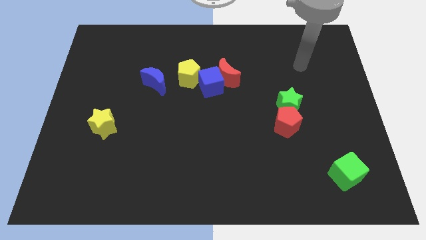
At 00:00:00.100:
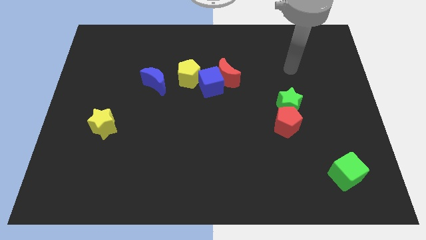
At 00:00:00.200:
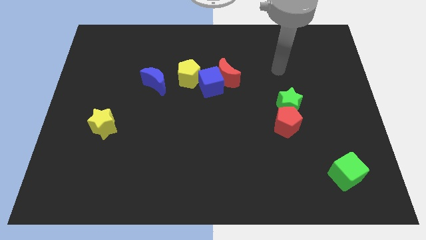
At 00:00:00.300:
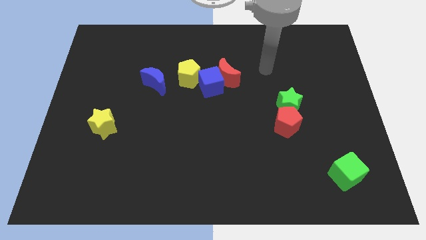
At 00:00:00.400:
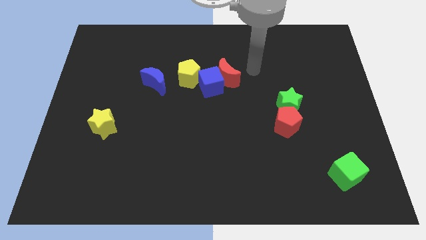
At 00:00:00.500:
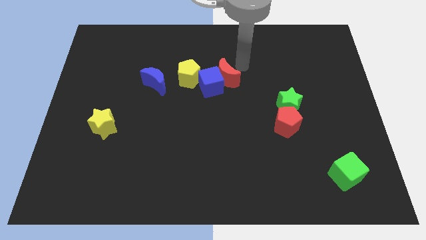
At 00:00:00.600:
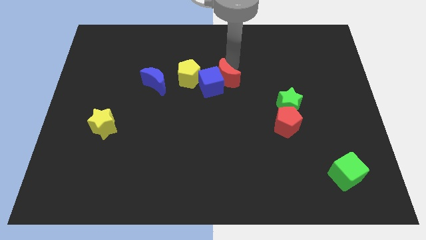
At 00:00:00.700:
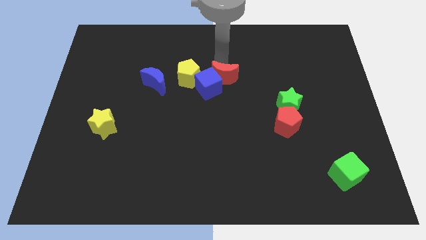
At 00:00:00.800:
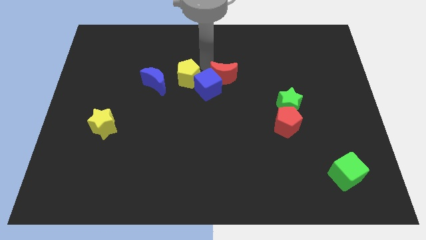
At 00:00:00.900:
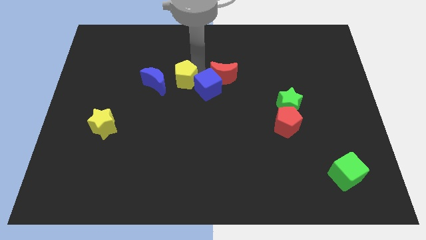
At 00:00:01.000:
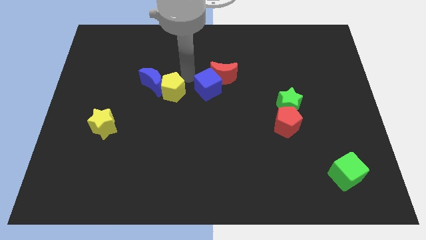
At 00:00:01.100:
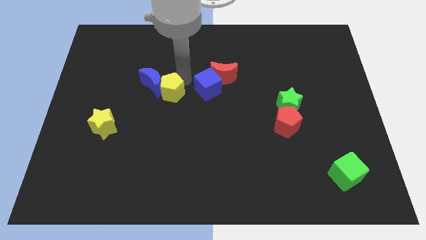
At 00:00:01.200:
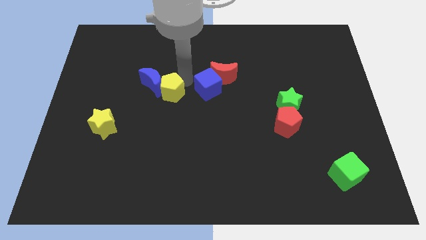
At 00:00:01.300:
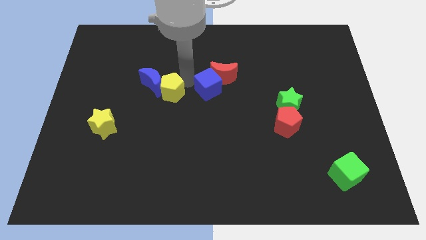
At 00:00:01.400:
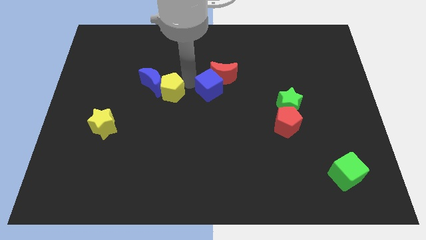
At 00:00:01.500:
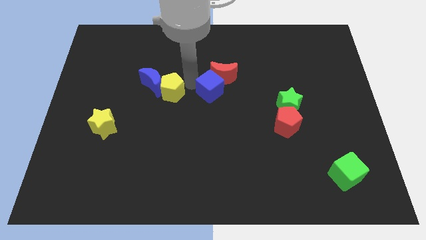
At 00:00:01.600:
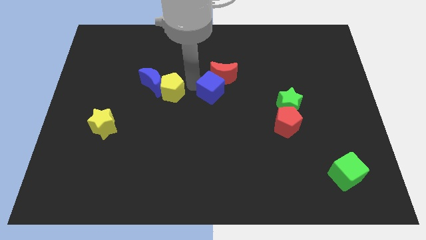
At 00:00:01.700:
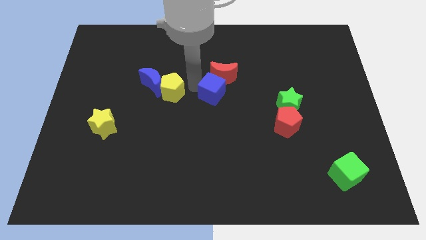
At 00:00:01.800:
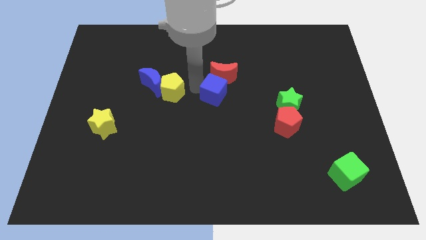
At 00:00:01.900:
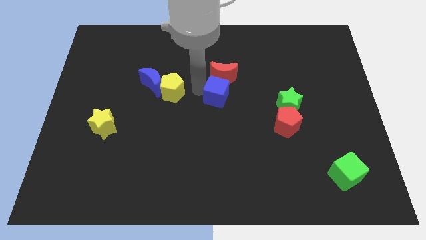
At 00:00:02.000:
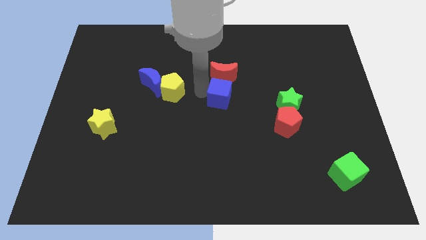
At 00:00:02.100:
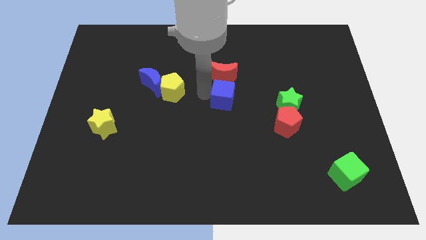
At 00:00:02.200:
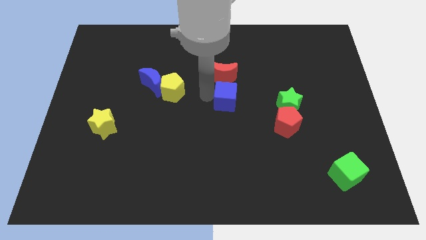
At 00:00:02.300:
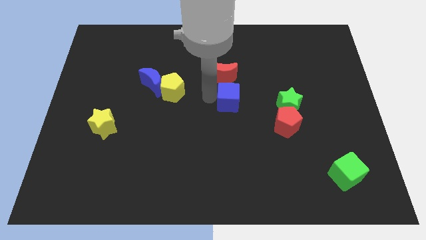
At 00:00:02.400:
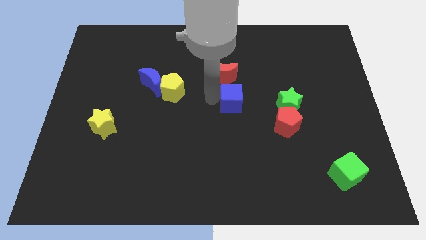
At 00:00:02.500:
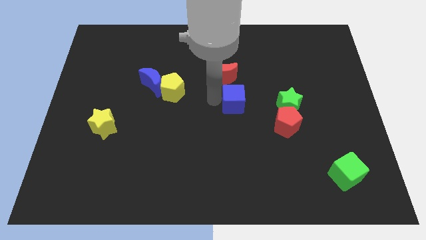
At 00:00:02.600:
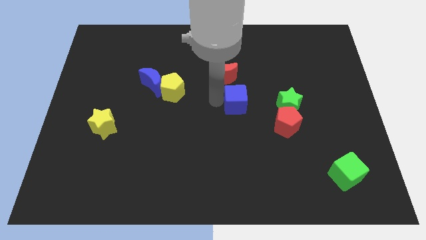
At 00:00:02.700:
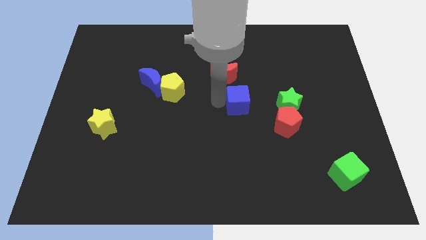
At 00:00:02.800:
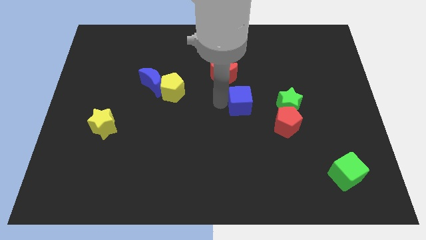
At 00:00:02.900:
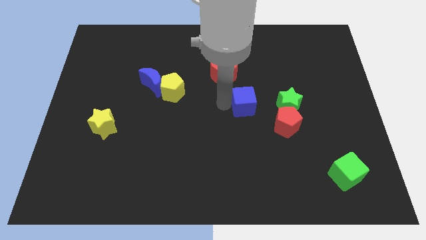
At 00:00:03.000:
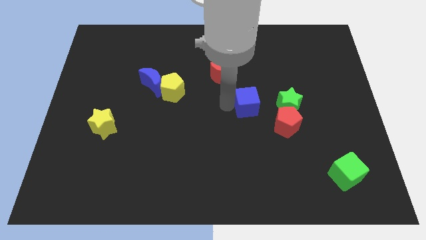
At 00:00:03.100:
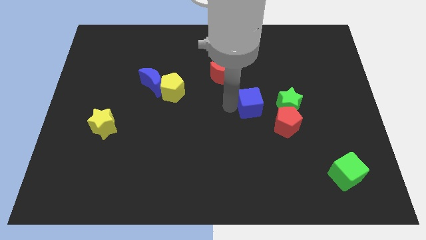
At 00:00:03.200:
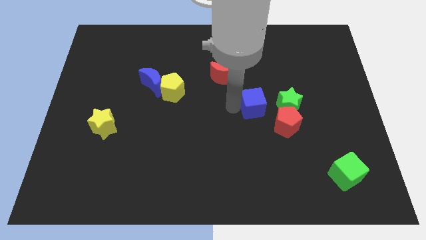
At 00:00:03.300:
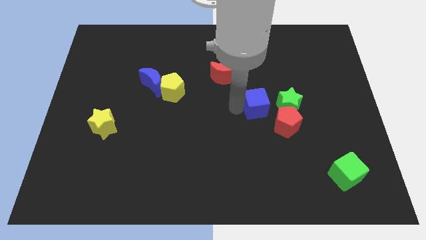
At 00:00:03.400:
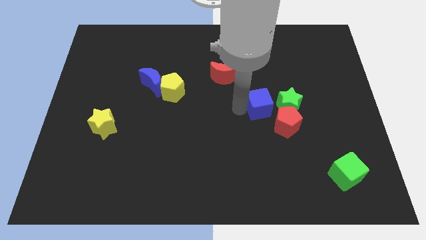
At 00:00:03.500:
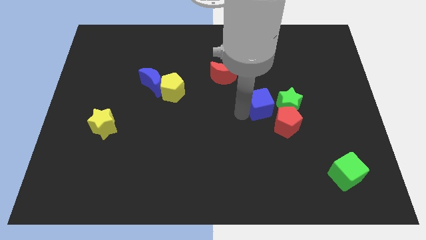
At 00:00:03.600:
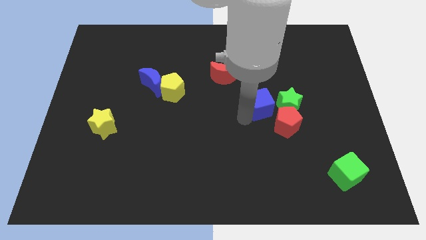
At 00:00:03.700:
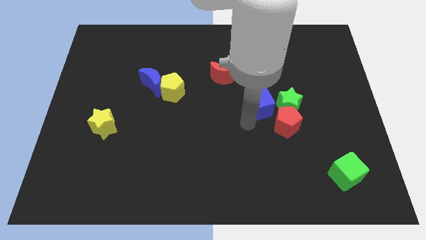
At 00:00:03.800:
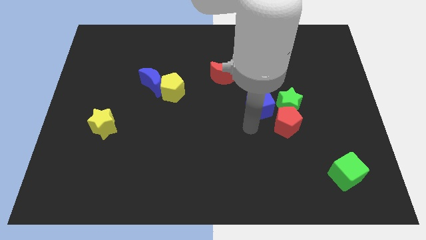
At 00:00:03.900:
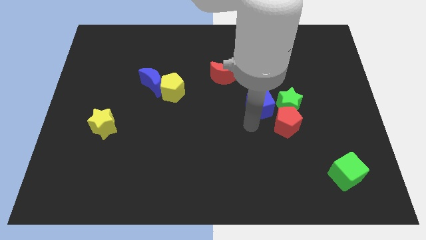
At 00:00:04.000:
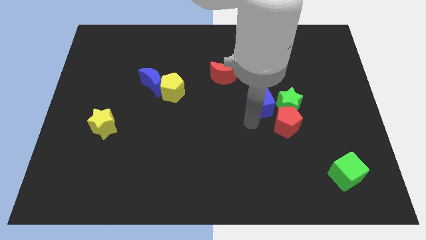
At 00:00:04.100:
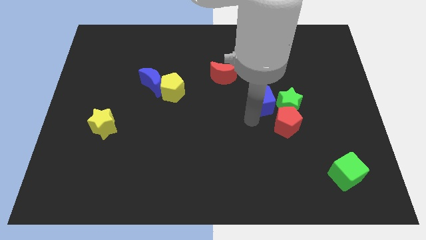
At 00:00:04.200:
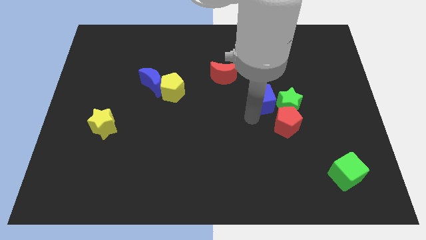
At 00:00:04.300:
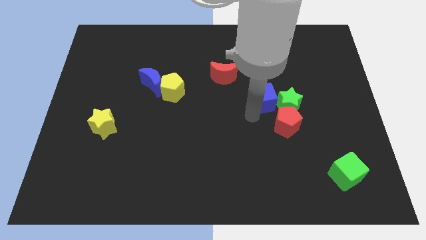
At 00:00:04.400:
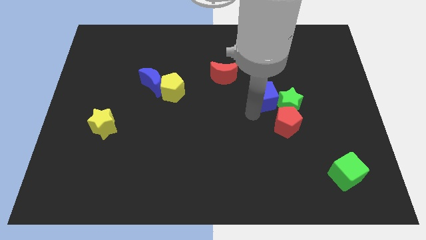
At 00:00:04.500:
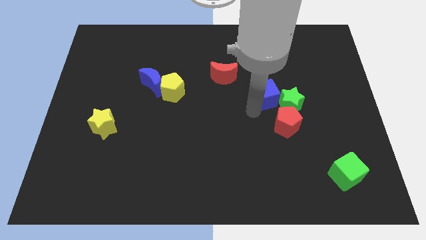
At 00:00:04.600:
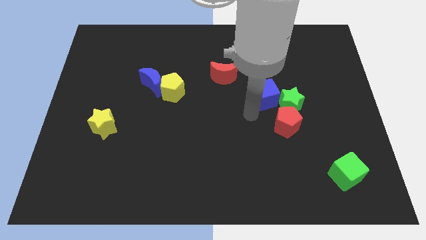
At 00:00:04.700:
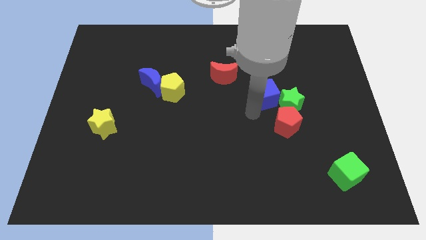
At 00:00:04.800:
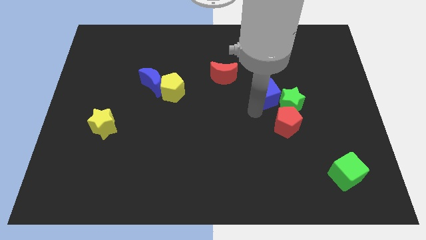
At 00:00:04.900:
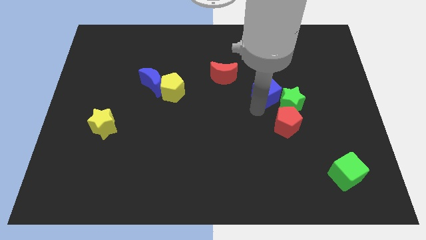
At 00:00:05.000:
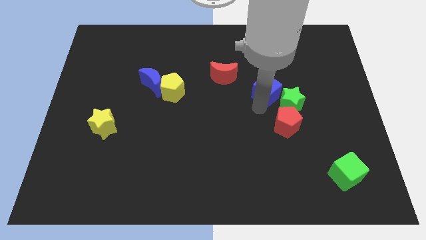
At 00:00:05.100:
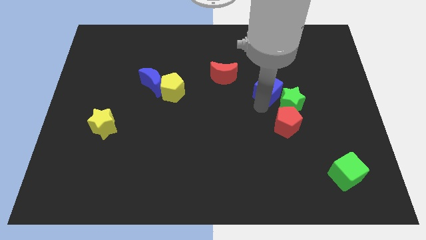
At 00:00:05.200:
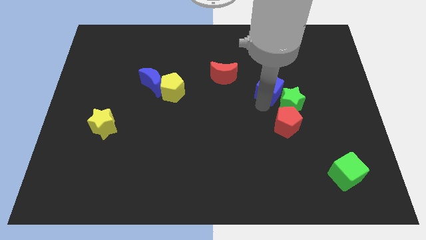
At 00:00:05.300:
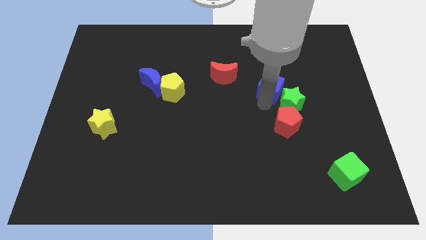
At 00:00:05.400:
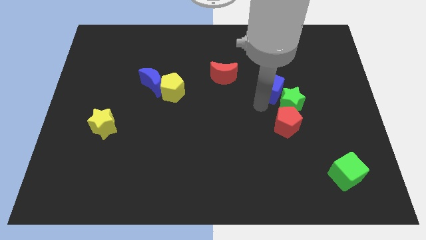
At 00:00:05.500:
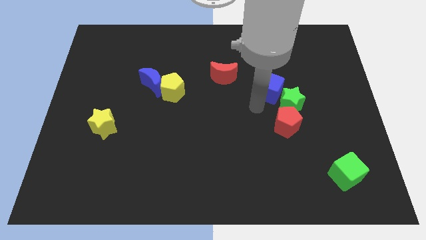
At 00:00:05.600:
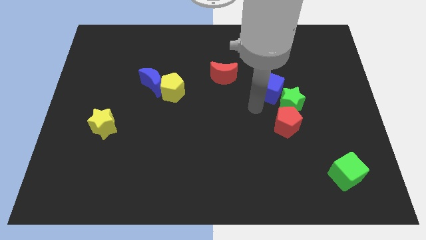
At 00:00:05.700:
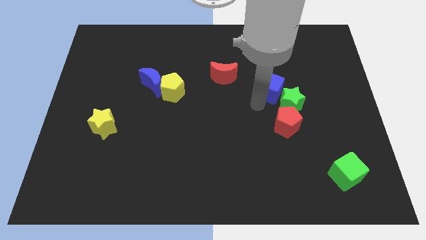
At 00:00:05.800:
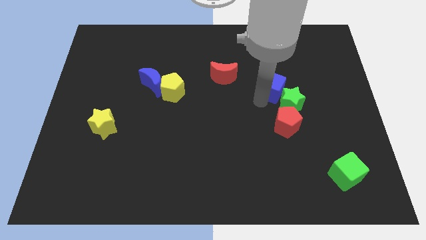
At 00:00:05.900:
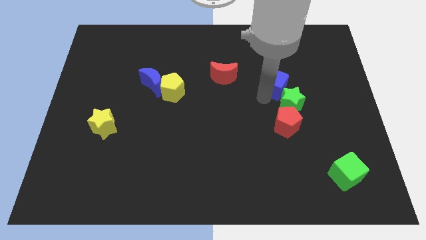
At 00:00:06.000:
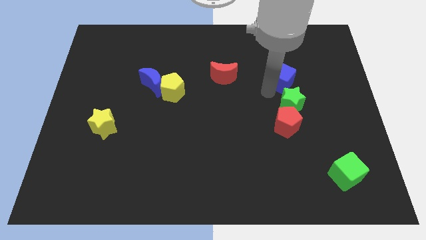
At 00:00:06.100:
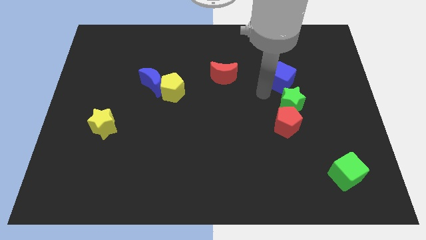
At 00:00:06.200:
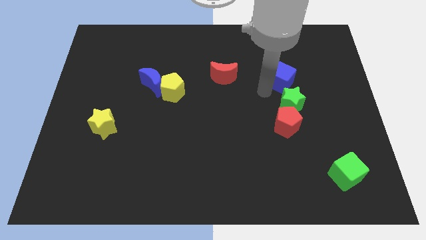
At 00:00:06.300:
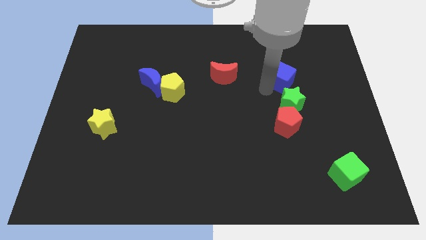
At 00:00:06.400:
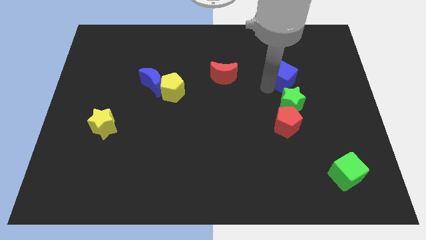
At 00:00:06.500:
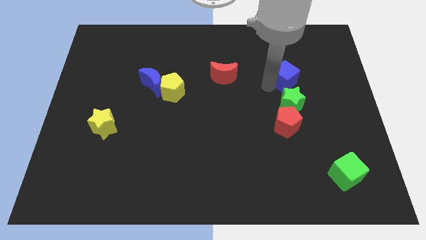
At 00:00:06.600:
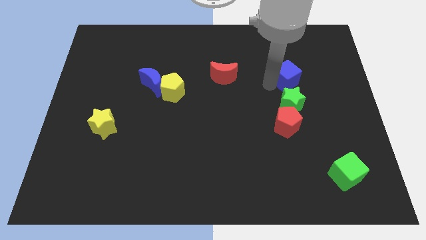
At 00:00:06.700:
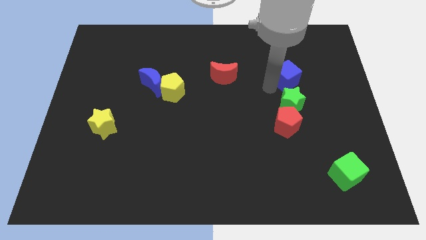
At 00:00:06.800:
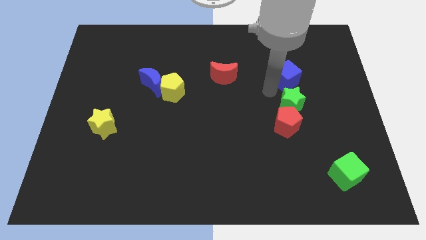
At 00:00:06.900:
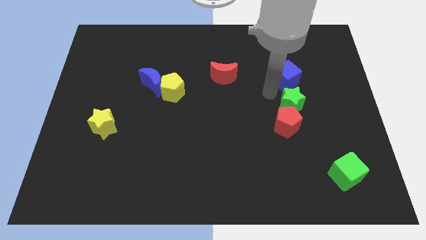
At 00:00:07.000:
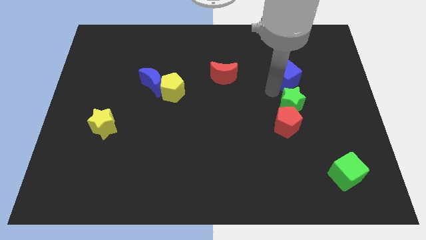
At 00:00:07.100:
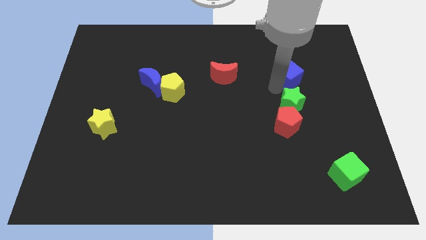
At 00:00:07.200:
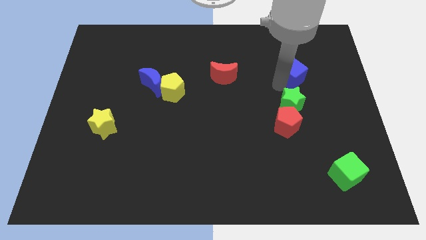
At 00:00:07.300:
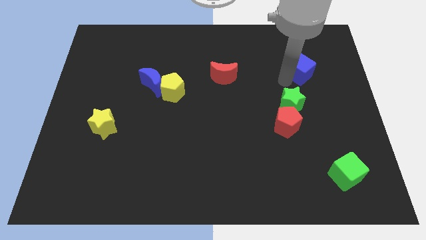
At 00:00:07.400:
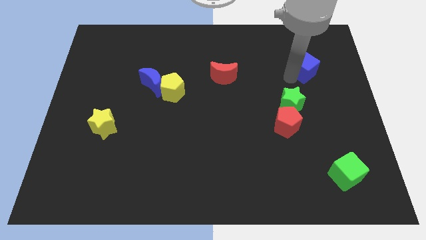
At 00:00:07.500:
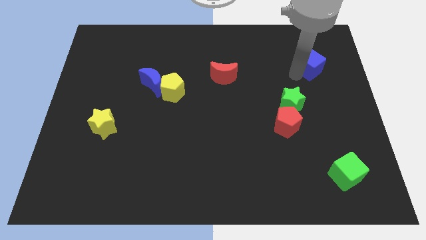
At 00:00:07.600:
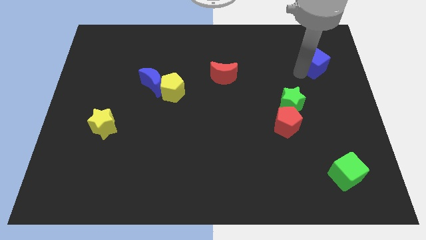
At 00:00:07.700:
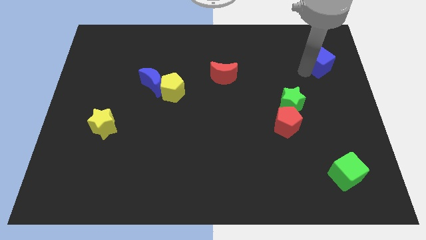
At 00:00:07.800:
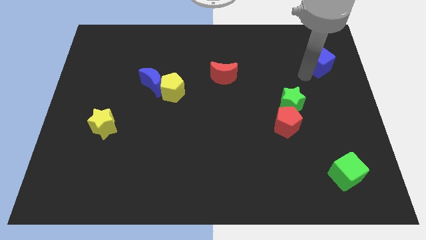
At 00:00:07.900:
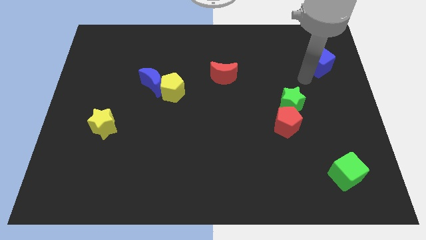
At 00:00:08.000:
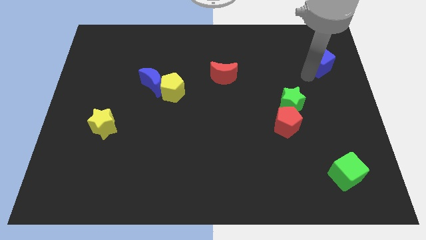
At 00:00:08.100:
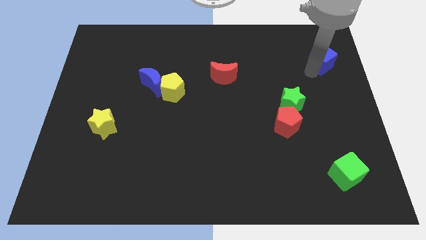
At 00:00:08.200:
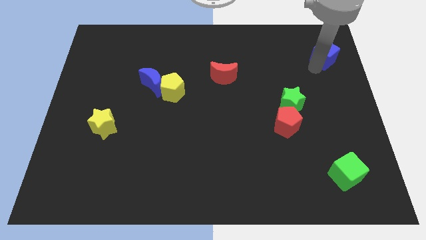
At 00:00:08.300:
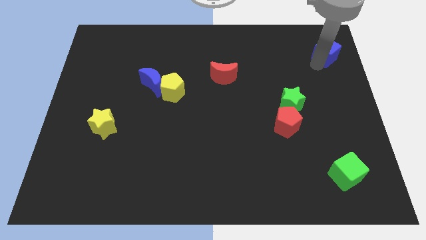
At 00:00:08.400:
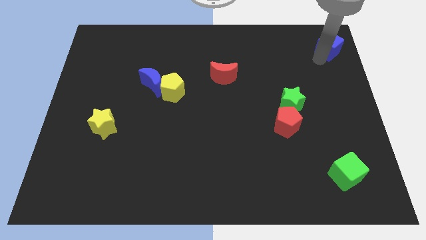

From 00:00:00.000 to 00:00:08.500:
put the blue cube to the upper right corner
